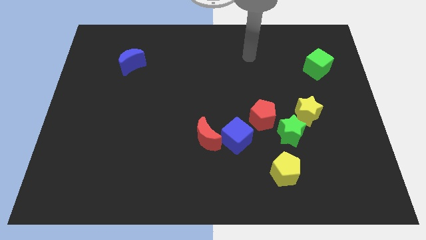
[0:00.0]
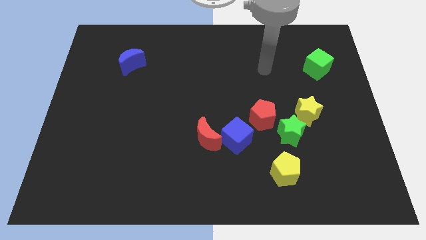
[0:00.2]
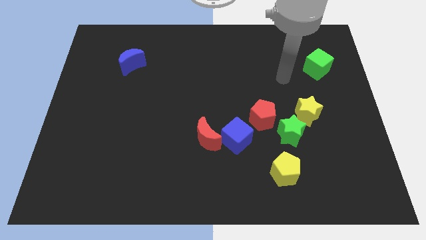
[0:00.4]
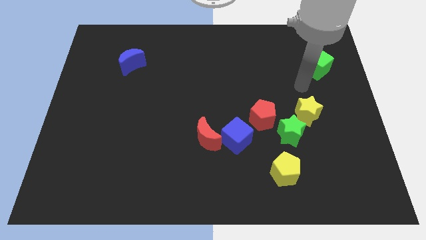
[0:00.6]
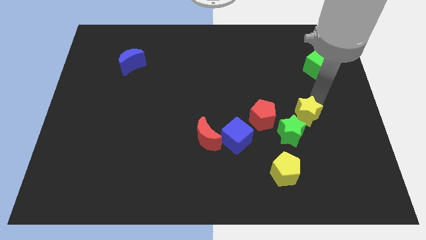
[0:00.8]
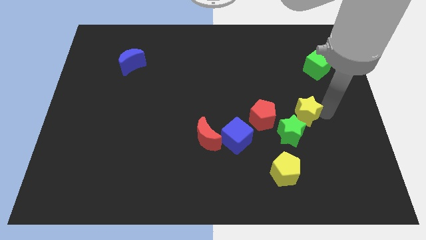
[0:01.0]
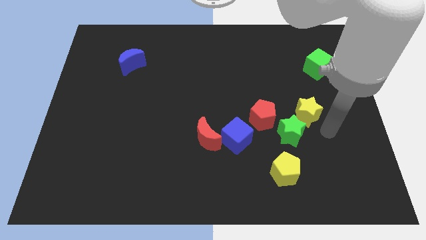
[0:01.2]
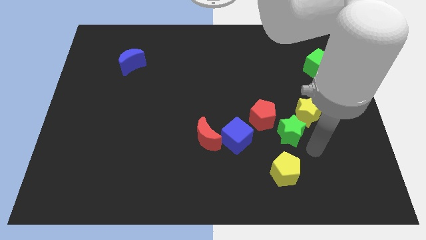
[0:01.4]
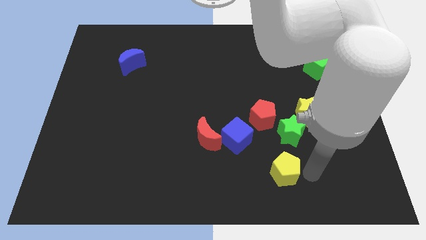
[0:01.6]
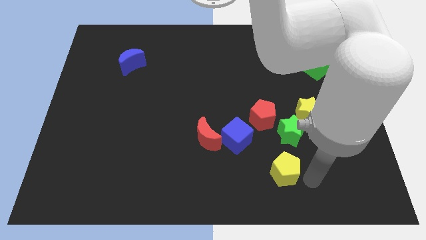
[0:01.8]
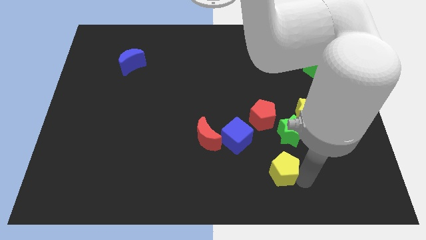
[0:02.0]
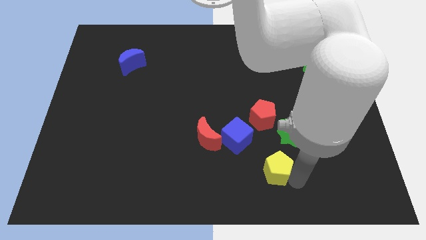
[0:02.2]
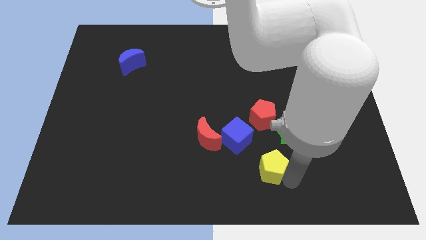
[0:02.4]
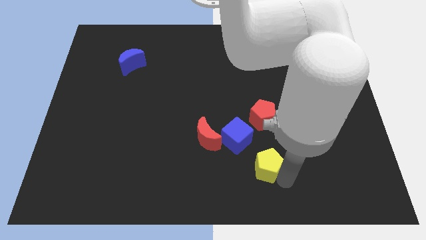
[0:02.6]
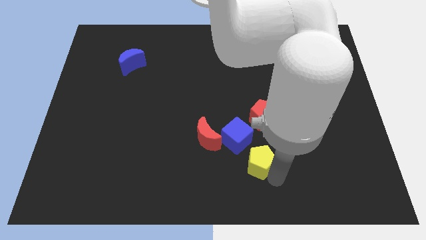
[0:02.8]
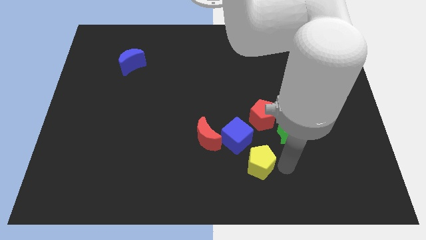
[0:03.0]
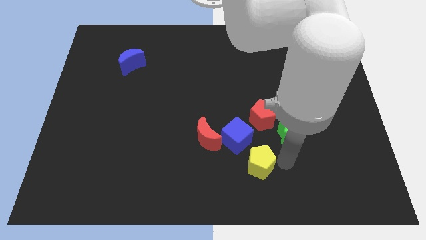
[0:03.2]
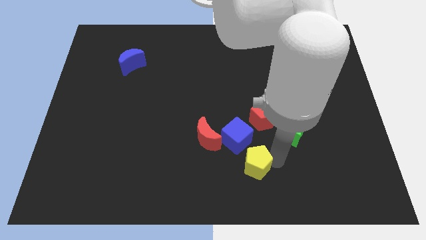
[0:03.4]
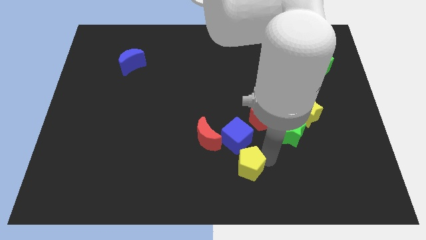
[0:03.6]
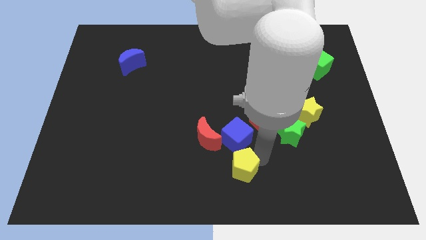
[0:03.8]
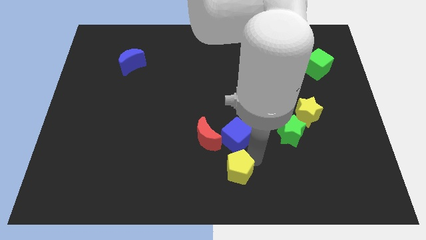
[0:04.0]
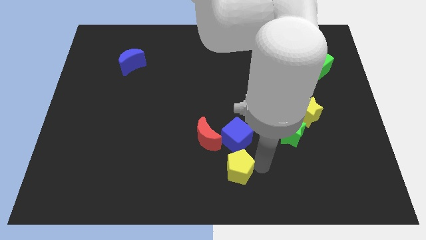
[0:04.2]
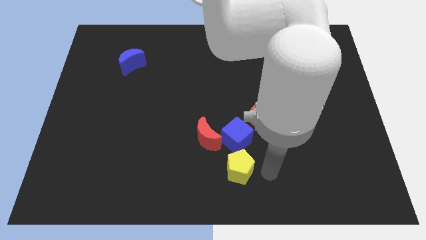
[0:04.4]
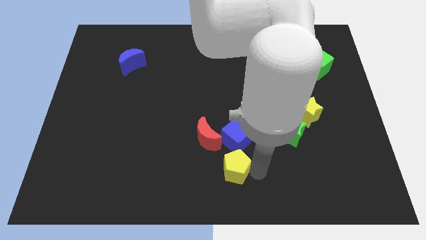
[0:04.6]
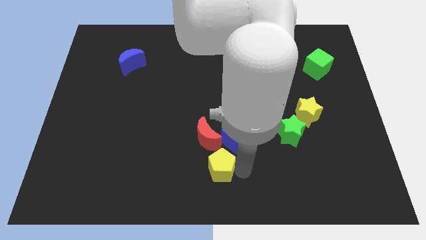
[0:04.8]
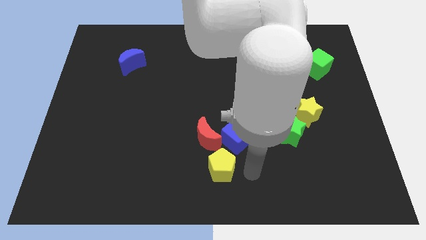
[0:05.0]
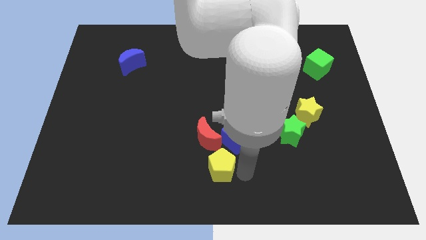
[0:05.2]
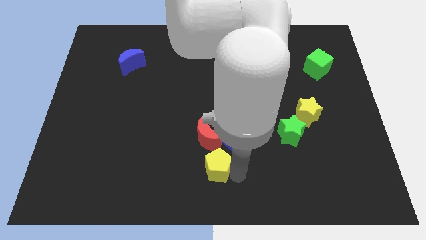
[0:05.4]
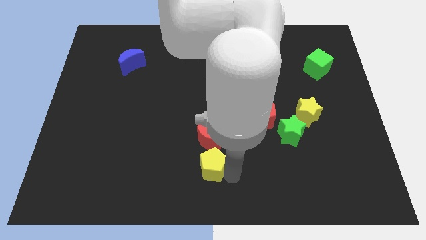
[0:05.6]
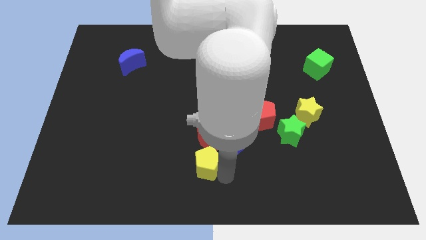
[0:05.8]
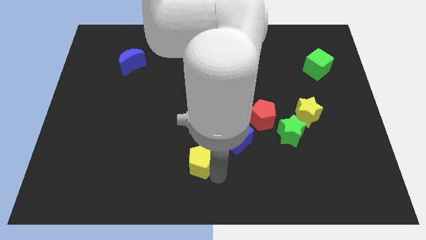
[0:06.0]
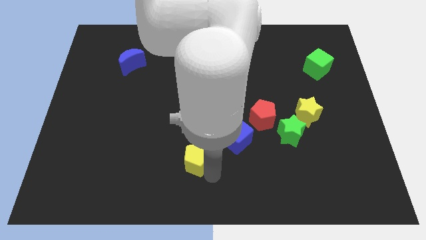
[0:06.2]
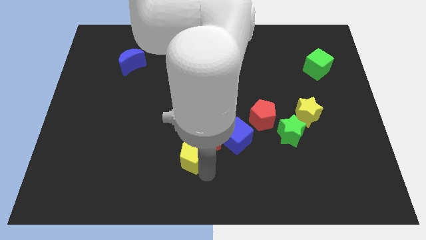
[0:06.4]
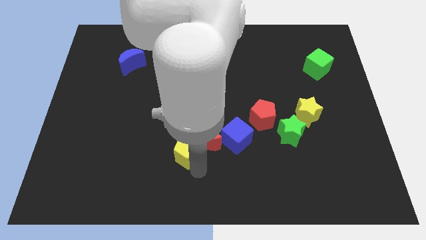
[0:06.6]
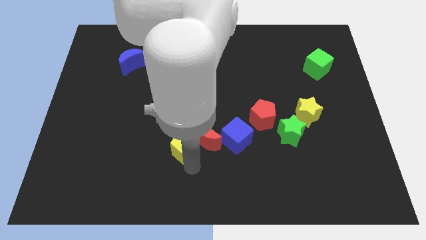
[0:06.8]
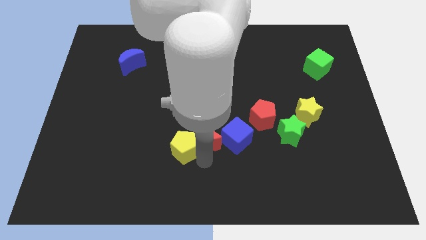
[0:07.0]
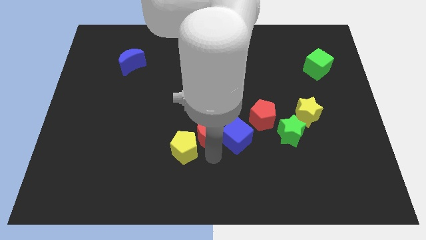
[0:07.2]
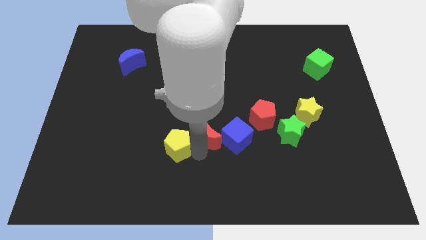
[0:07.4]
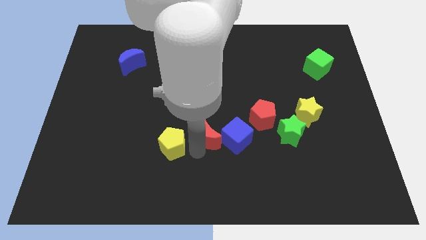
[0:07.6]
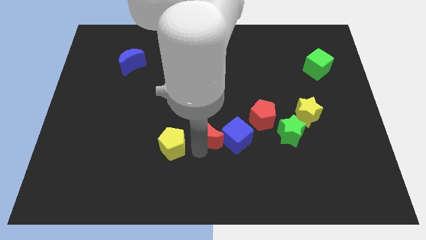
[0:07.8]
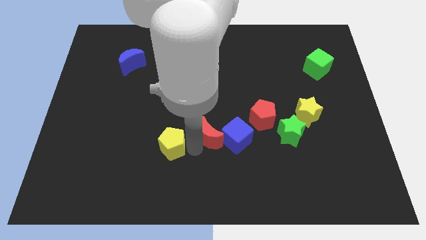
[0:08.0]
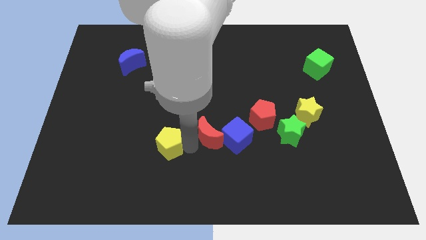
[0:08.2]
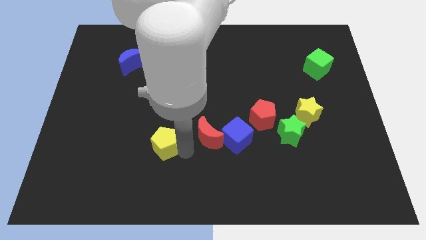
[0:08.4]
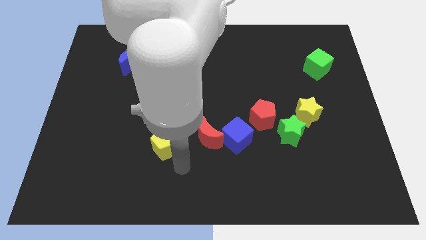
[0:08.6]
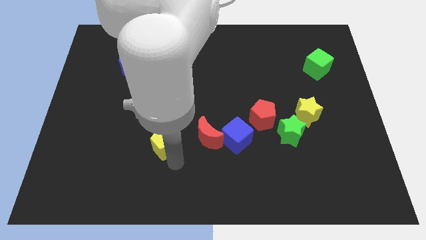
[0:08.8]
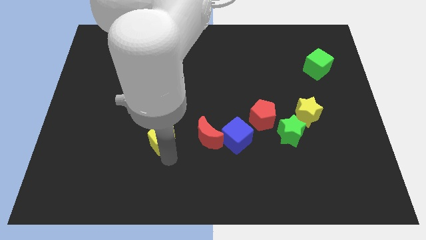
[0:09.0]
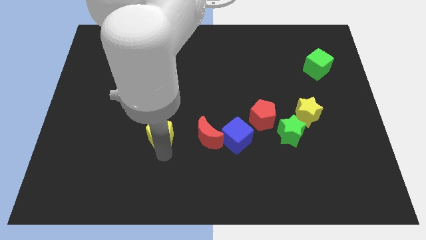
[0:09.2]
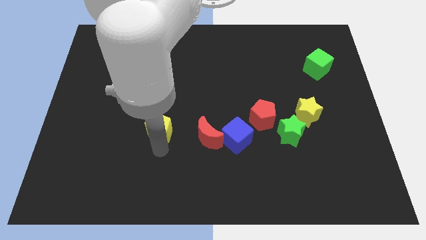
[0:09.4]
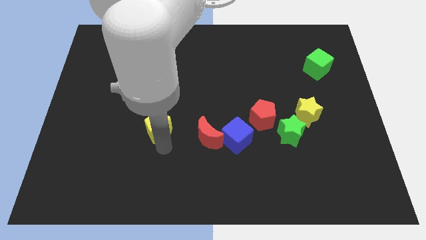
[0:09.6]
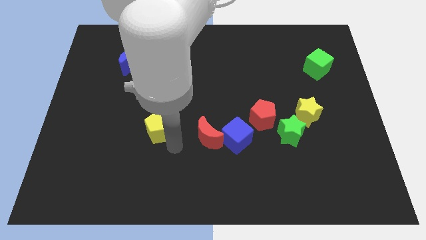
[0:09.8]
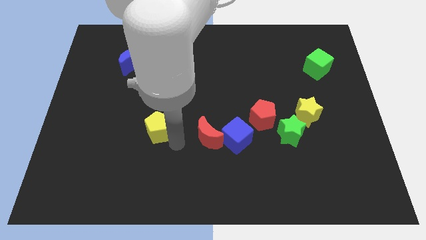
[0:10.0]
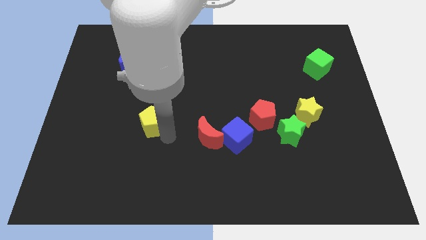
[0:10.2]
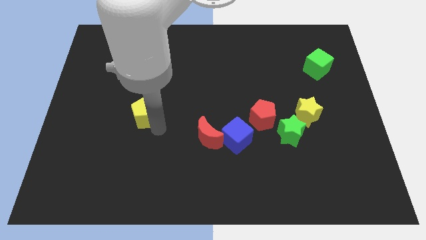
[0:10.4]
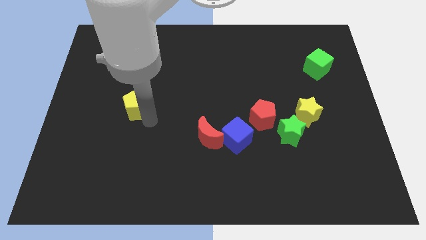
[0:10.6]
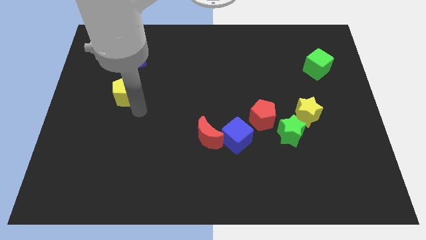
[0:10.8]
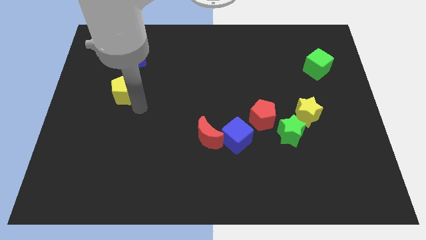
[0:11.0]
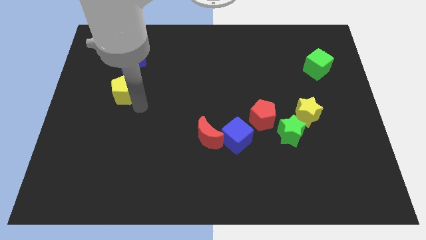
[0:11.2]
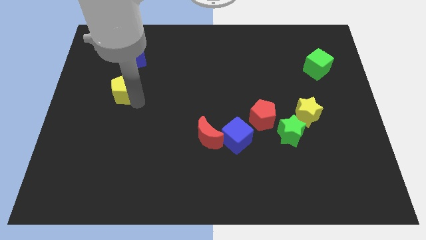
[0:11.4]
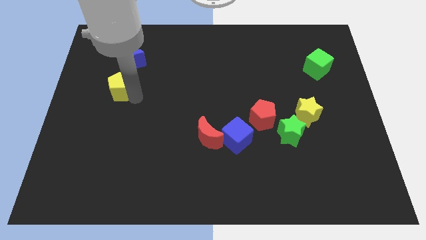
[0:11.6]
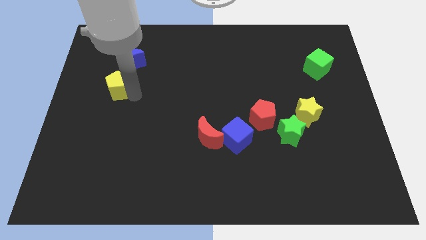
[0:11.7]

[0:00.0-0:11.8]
slide the yellow pentagon diagonally down and to the left of the blue moon

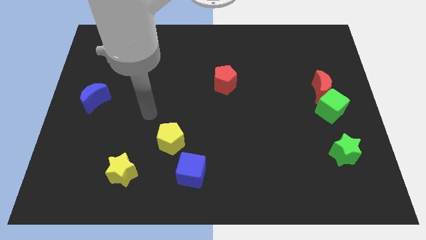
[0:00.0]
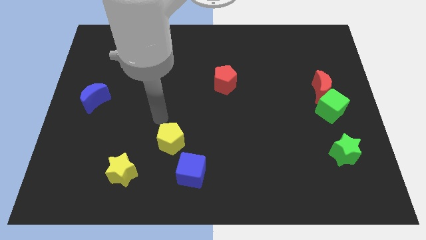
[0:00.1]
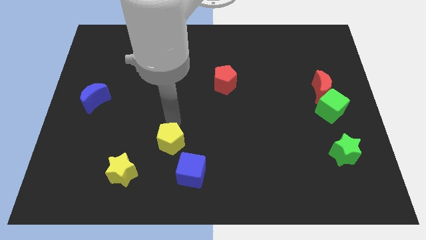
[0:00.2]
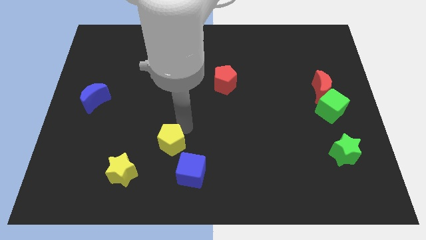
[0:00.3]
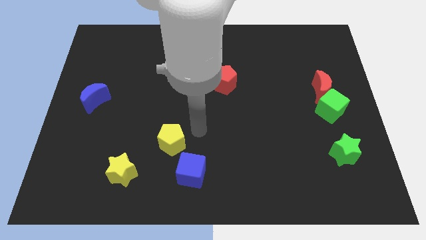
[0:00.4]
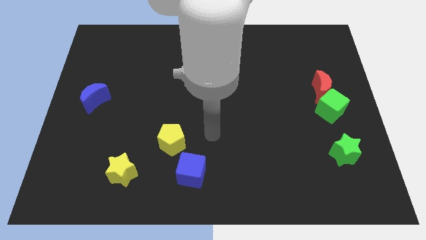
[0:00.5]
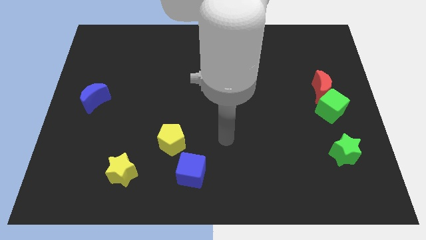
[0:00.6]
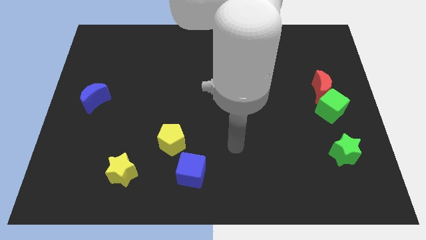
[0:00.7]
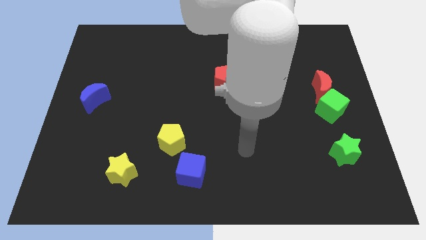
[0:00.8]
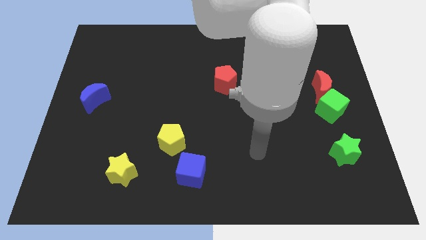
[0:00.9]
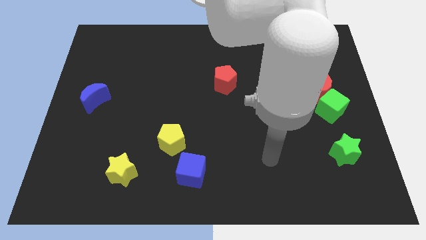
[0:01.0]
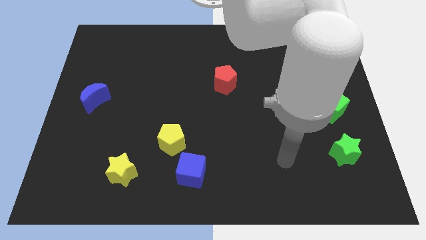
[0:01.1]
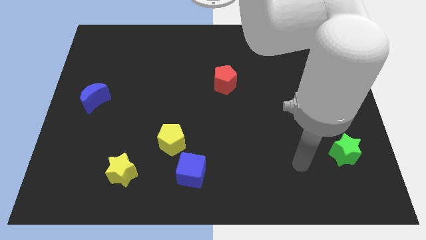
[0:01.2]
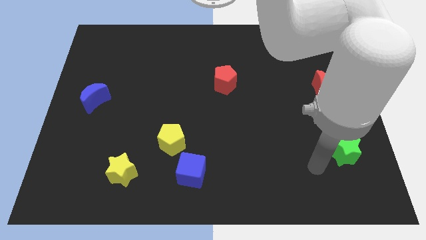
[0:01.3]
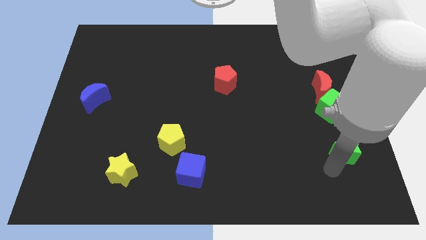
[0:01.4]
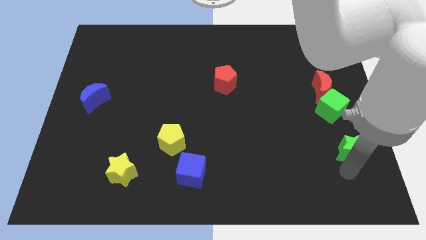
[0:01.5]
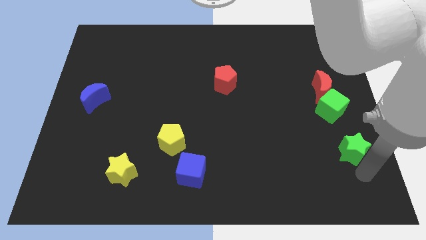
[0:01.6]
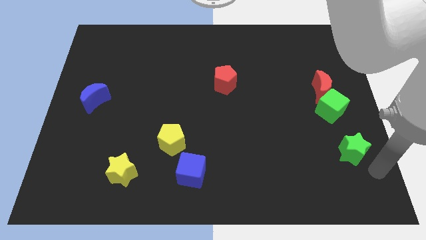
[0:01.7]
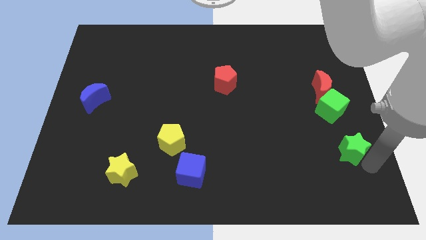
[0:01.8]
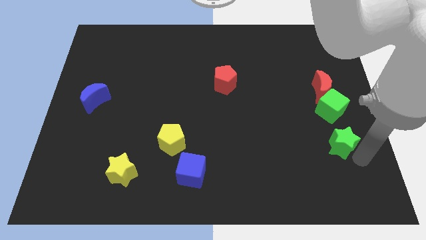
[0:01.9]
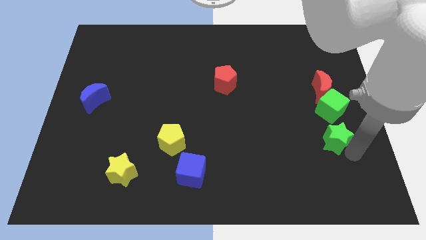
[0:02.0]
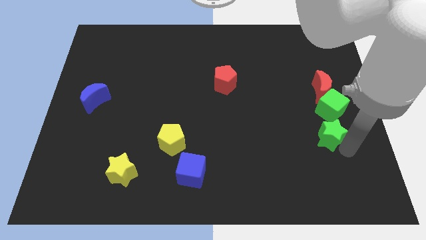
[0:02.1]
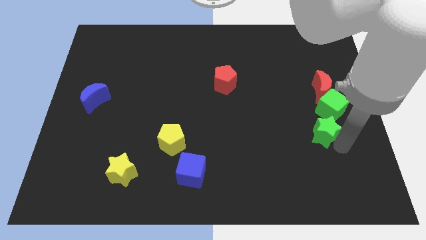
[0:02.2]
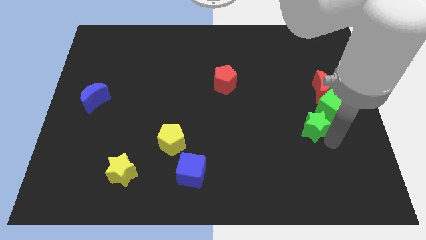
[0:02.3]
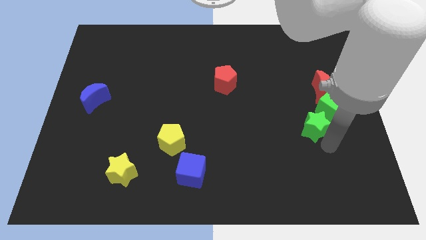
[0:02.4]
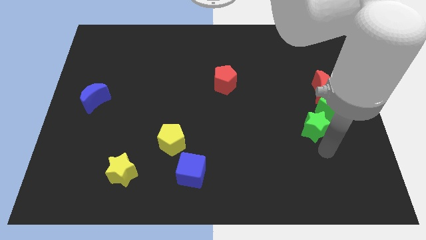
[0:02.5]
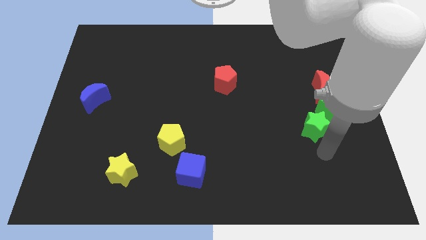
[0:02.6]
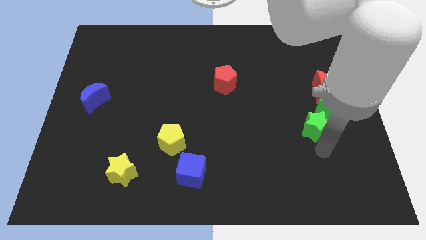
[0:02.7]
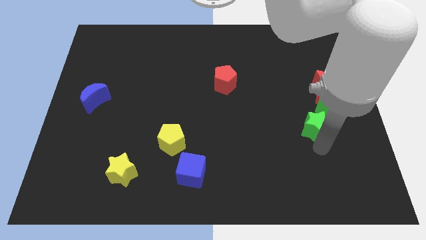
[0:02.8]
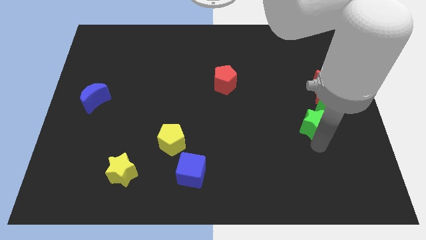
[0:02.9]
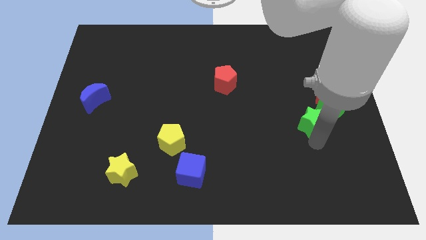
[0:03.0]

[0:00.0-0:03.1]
move the green star diagonally down and to the left of the red moon
